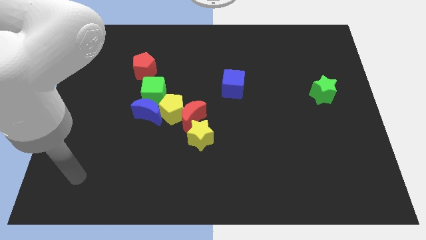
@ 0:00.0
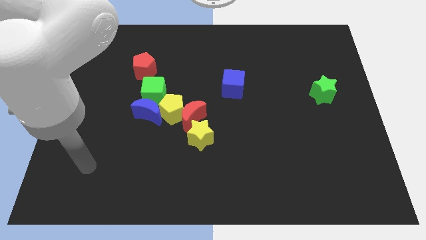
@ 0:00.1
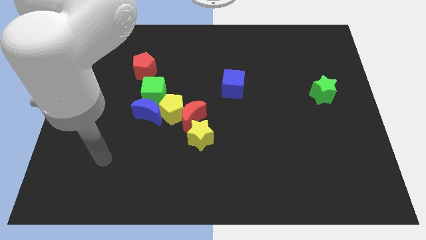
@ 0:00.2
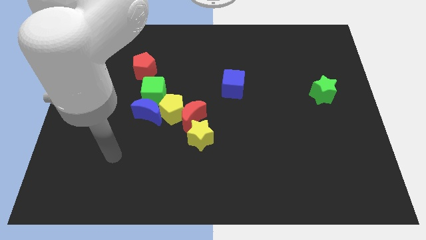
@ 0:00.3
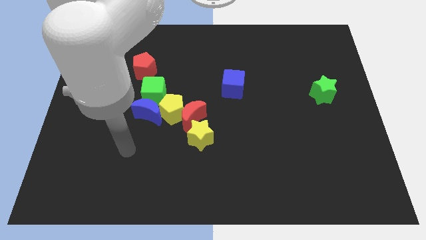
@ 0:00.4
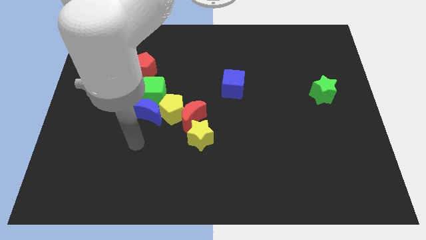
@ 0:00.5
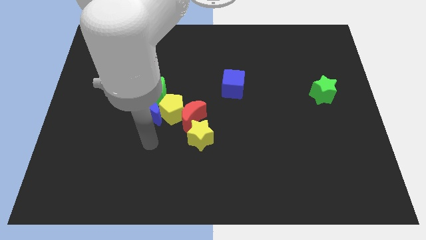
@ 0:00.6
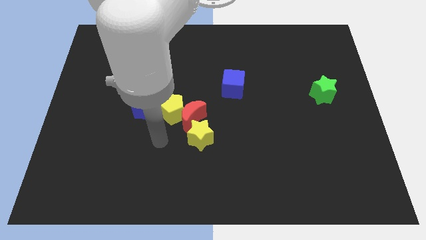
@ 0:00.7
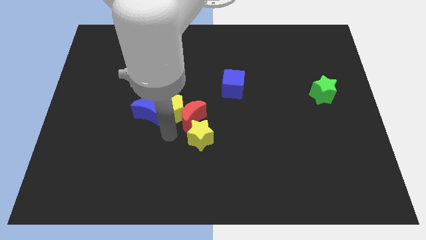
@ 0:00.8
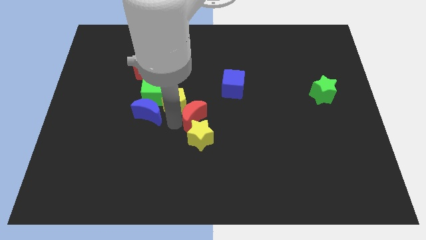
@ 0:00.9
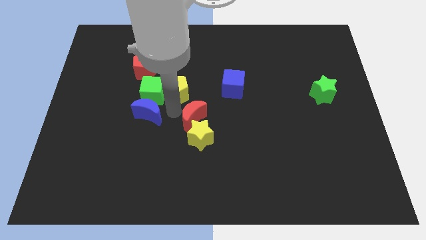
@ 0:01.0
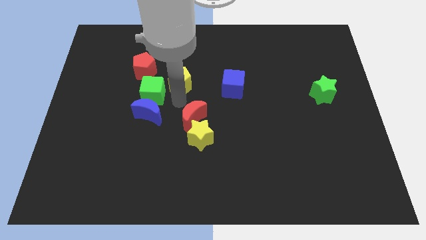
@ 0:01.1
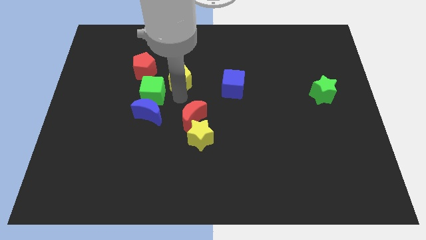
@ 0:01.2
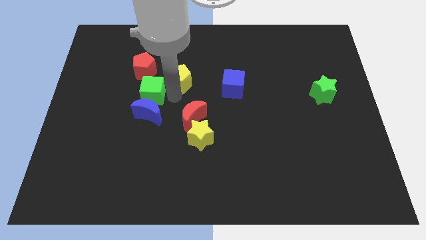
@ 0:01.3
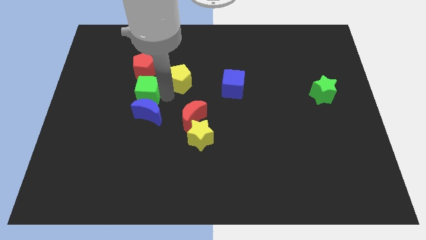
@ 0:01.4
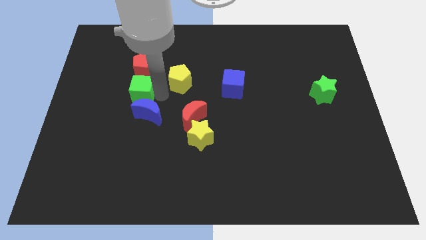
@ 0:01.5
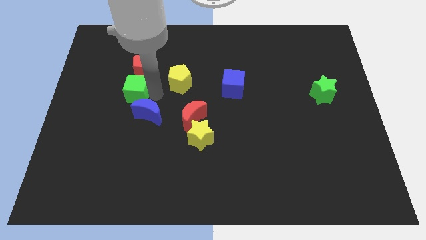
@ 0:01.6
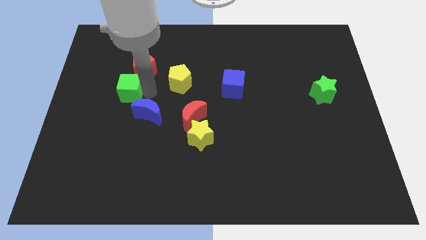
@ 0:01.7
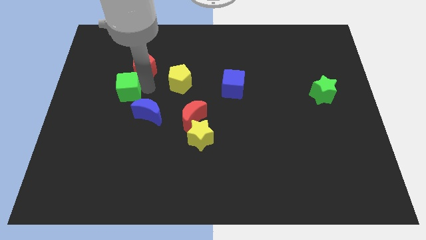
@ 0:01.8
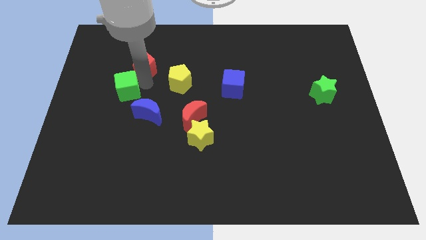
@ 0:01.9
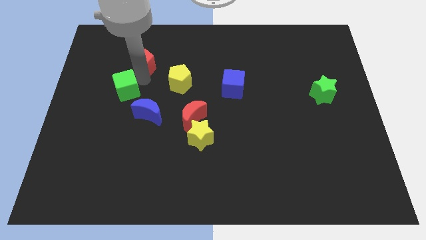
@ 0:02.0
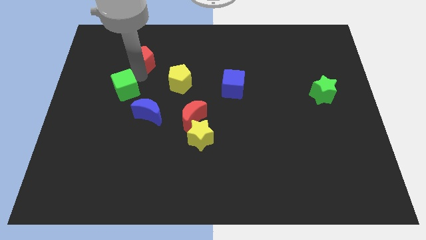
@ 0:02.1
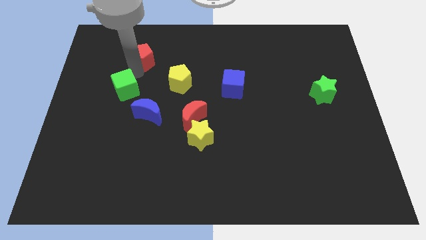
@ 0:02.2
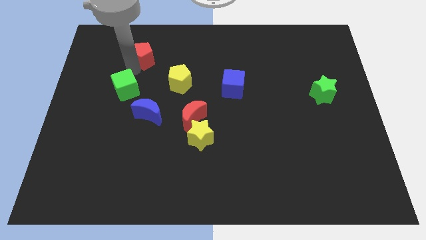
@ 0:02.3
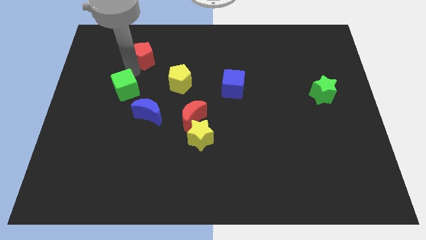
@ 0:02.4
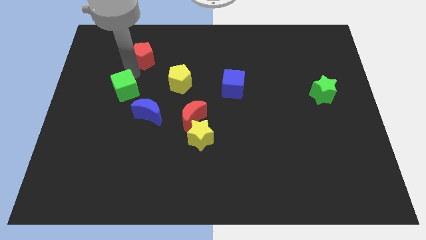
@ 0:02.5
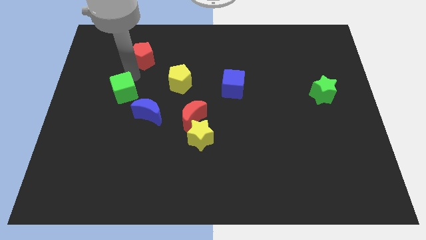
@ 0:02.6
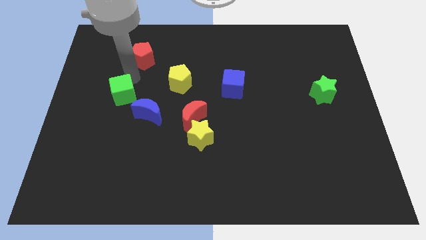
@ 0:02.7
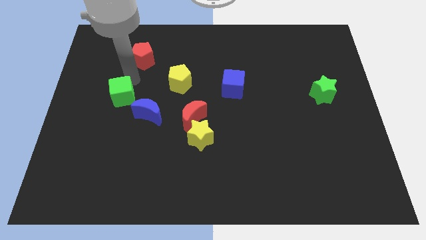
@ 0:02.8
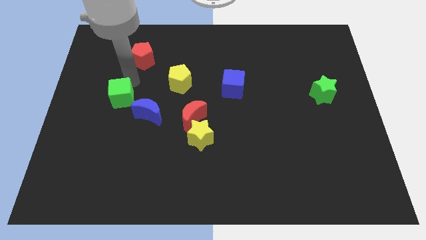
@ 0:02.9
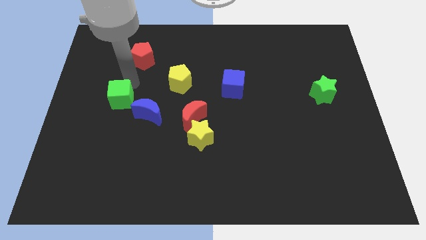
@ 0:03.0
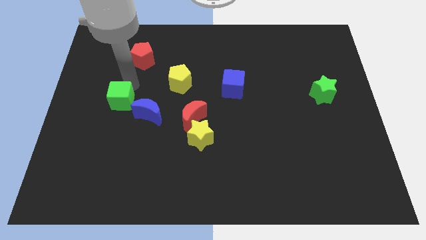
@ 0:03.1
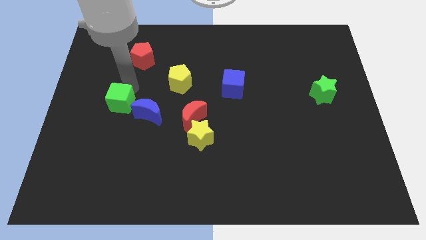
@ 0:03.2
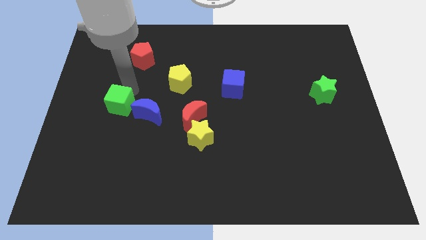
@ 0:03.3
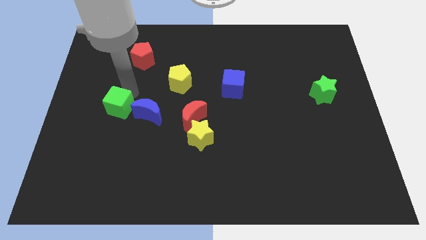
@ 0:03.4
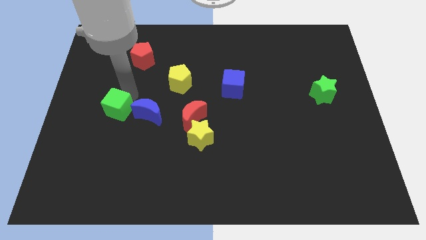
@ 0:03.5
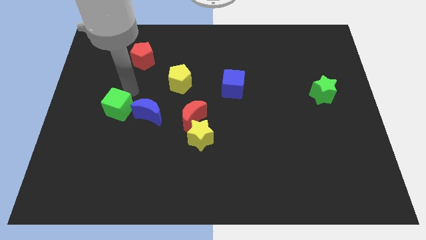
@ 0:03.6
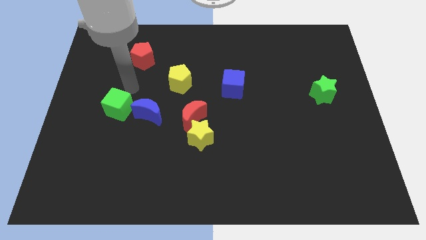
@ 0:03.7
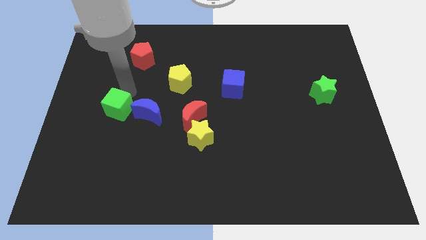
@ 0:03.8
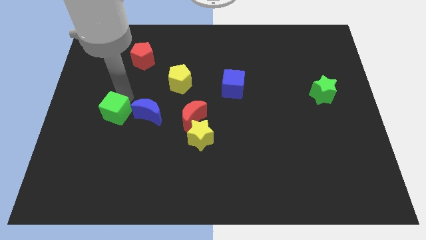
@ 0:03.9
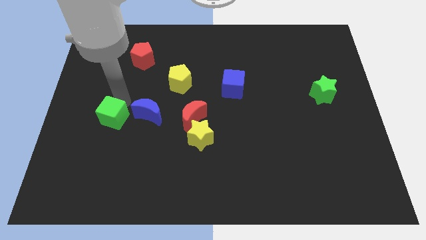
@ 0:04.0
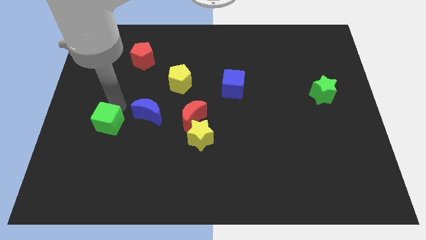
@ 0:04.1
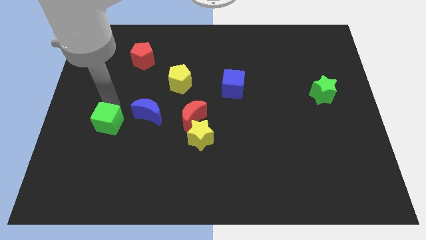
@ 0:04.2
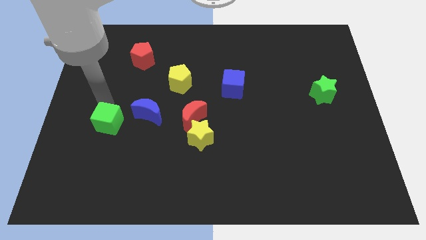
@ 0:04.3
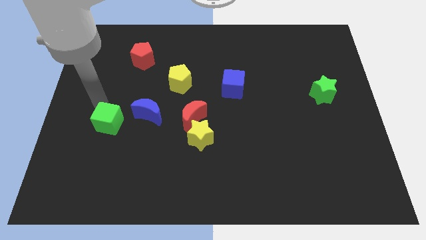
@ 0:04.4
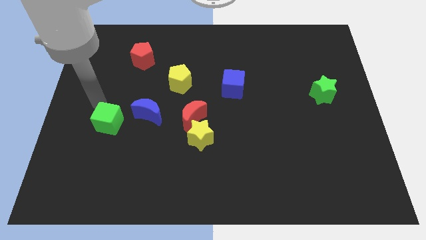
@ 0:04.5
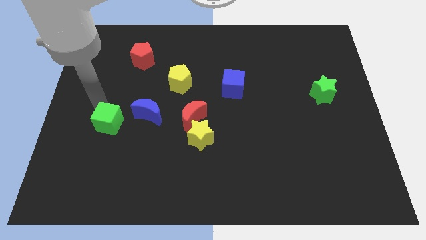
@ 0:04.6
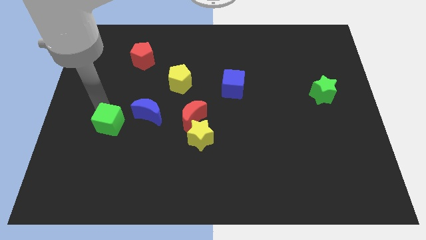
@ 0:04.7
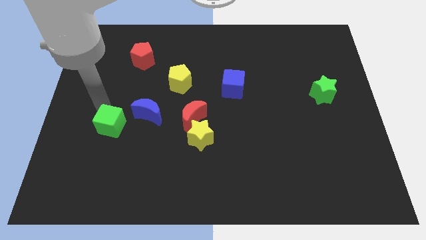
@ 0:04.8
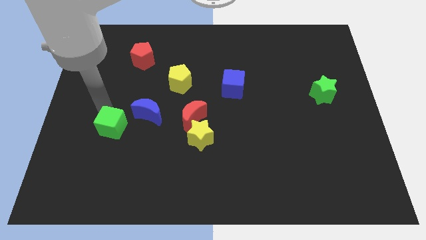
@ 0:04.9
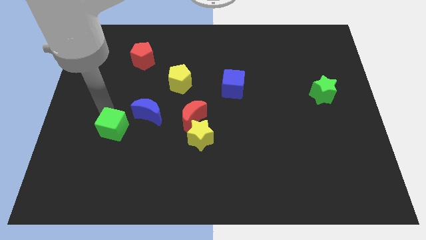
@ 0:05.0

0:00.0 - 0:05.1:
move the green cube slightly downwards

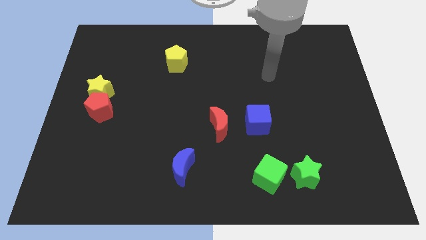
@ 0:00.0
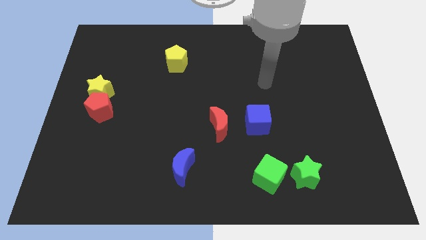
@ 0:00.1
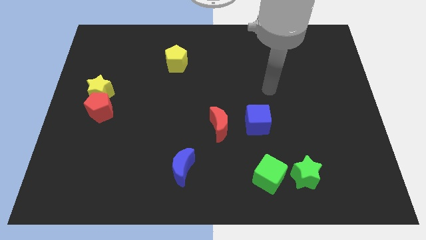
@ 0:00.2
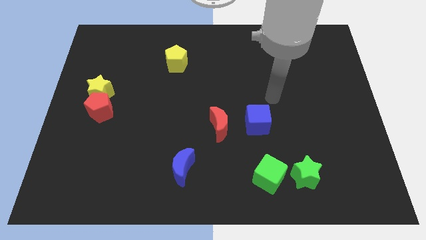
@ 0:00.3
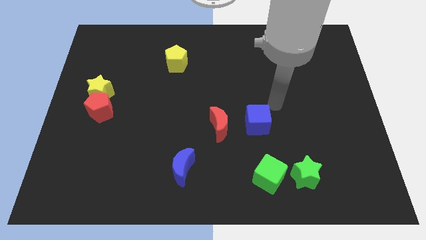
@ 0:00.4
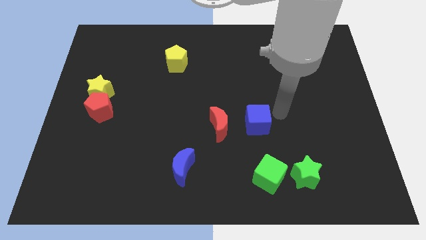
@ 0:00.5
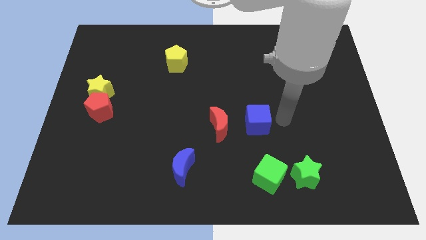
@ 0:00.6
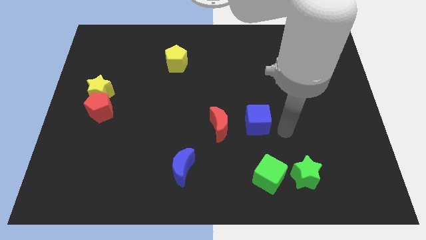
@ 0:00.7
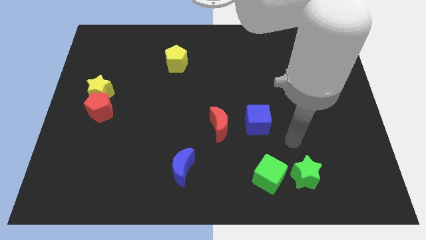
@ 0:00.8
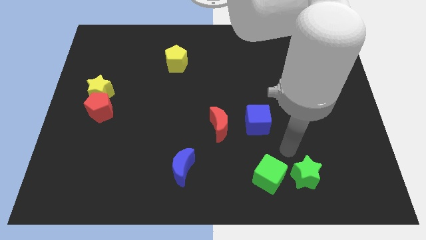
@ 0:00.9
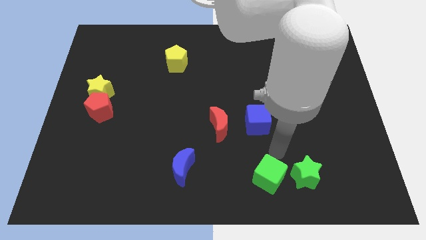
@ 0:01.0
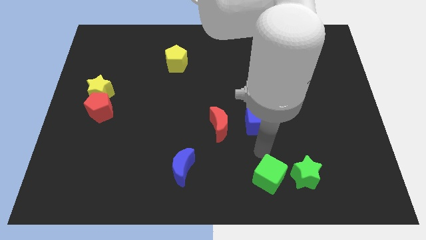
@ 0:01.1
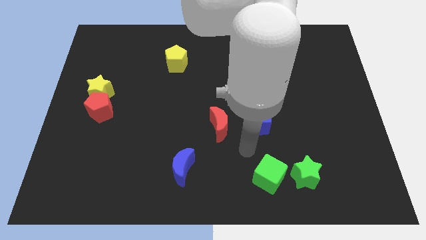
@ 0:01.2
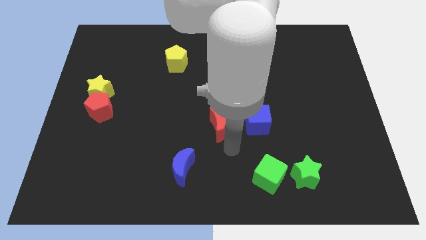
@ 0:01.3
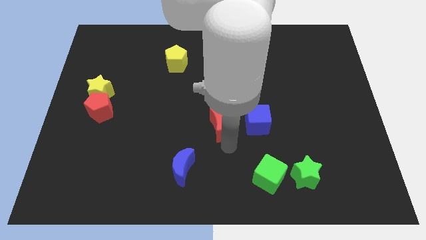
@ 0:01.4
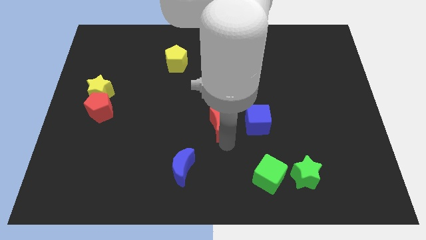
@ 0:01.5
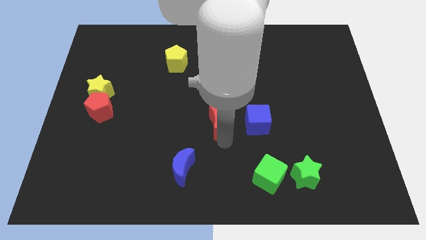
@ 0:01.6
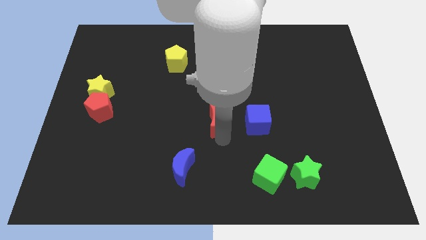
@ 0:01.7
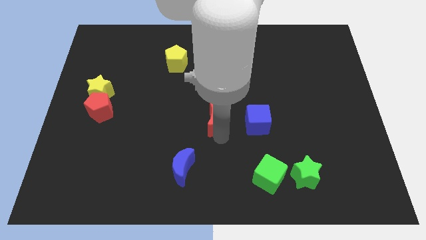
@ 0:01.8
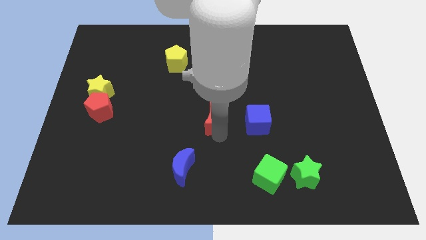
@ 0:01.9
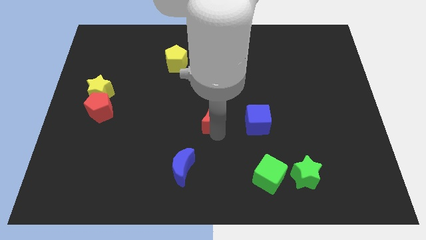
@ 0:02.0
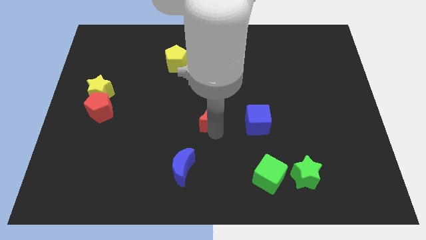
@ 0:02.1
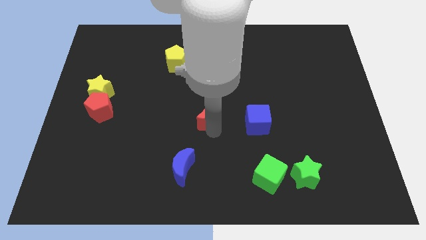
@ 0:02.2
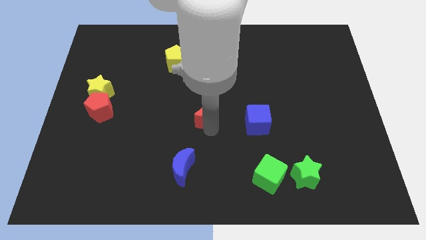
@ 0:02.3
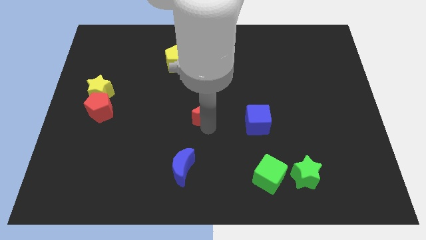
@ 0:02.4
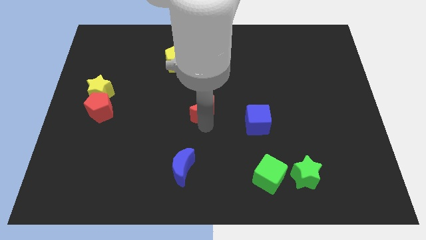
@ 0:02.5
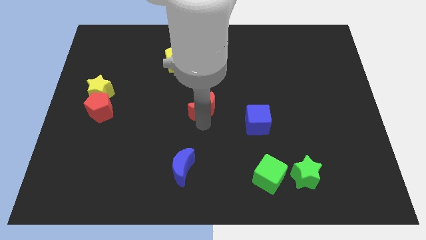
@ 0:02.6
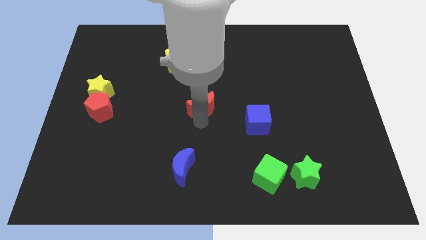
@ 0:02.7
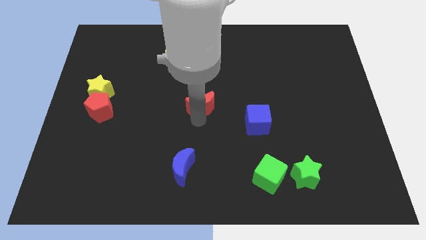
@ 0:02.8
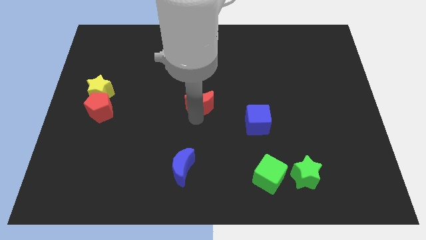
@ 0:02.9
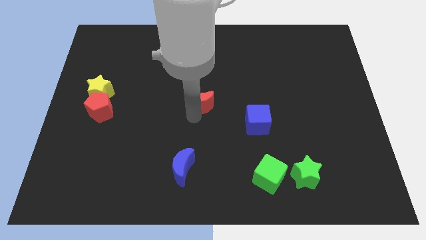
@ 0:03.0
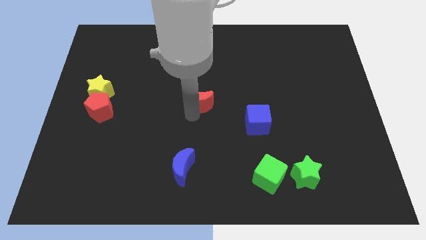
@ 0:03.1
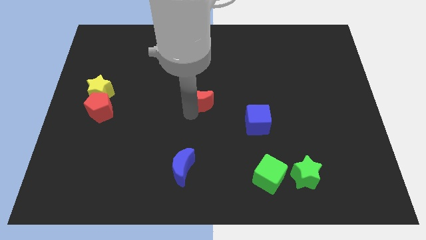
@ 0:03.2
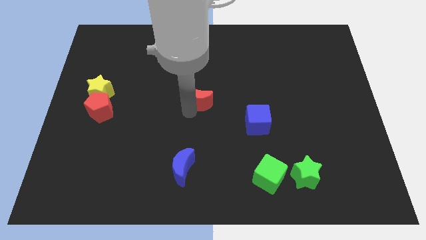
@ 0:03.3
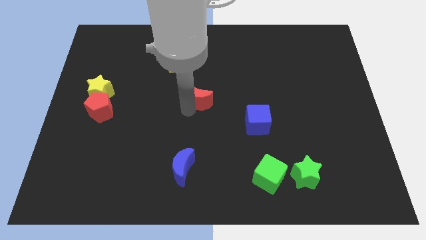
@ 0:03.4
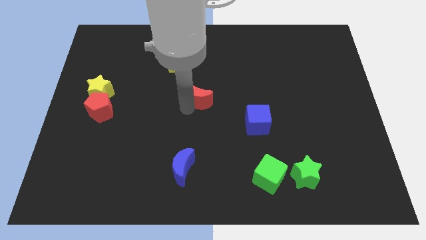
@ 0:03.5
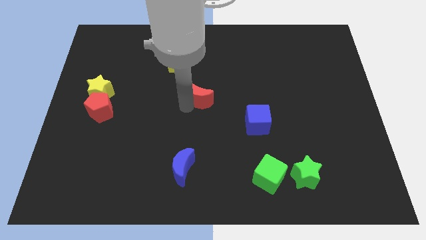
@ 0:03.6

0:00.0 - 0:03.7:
slightly slide the red moon upwards
